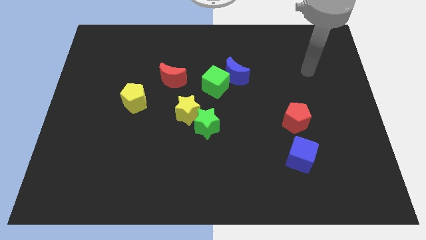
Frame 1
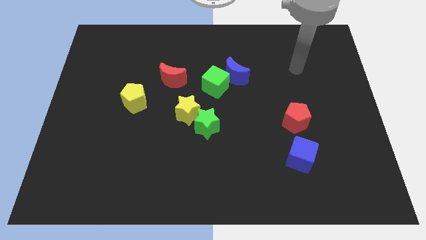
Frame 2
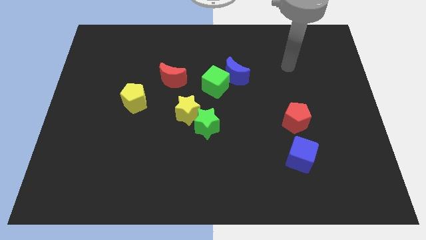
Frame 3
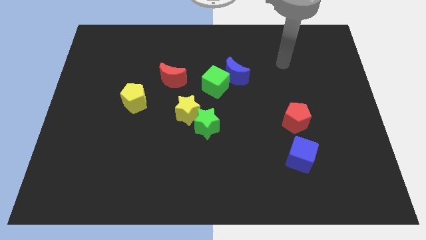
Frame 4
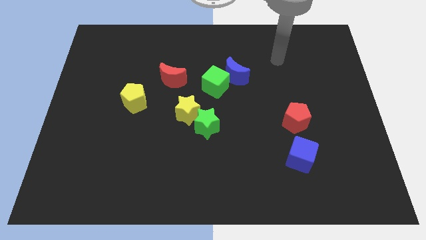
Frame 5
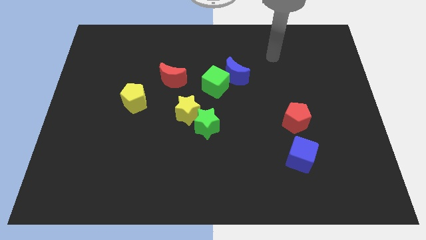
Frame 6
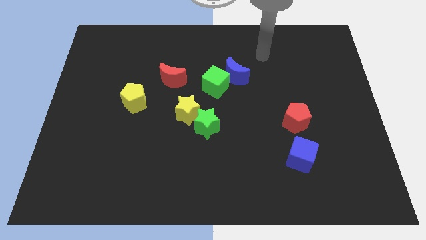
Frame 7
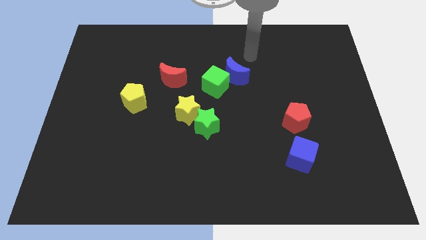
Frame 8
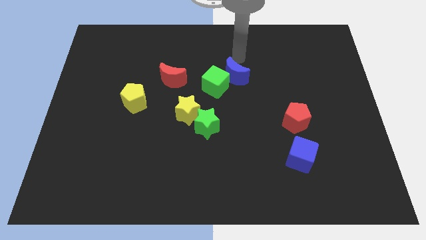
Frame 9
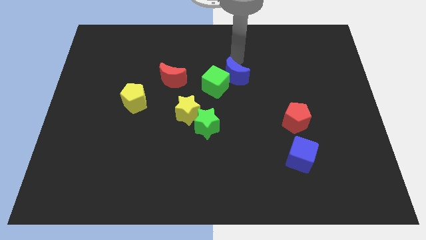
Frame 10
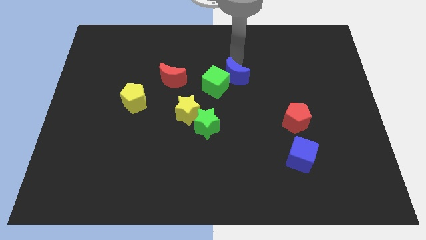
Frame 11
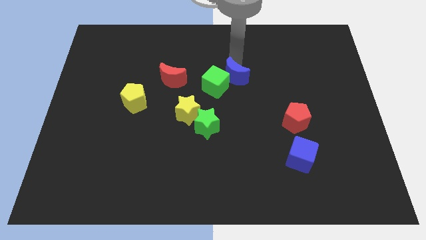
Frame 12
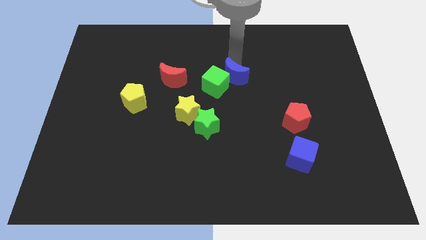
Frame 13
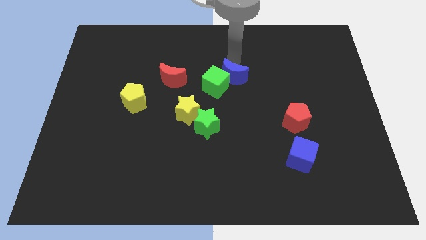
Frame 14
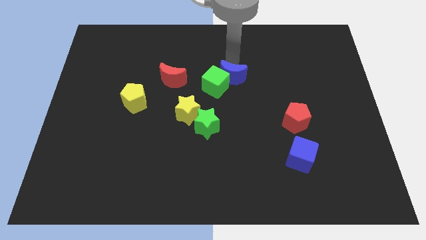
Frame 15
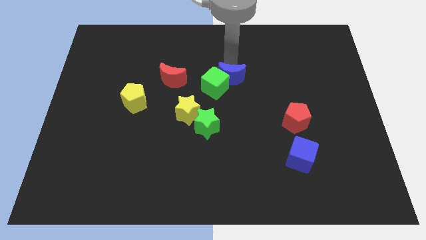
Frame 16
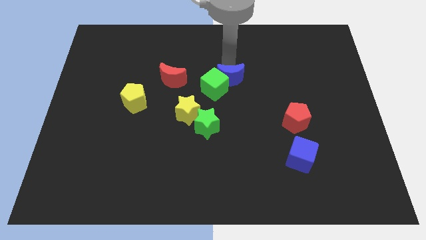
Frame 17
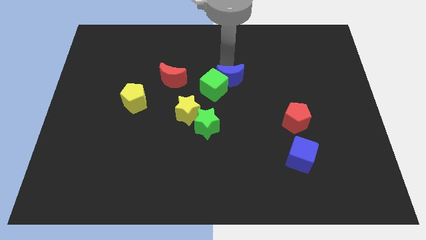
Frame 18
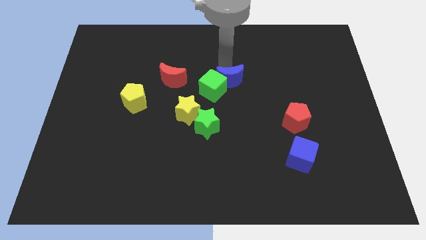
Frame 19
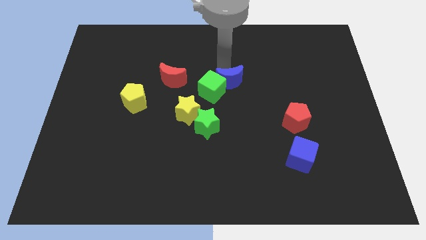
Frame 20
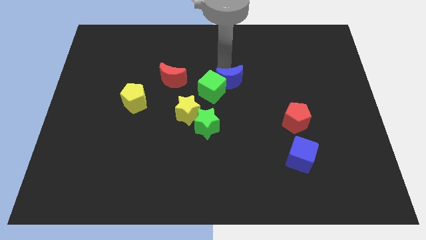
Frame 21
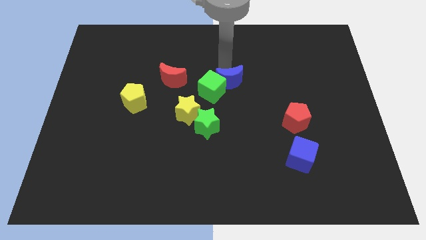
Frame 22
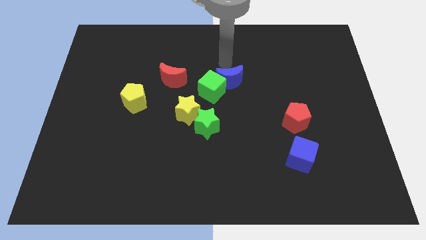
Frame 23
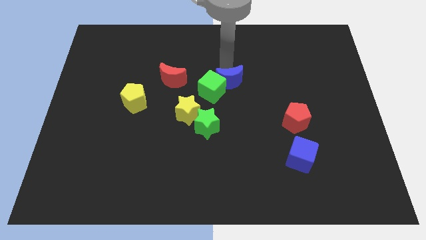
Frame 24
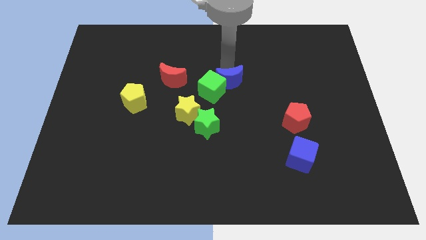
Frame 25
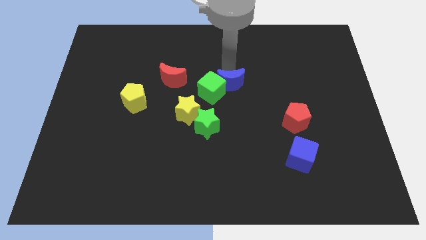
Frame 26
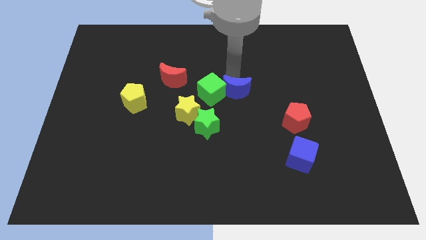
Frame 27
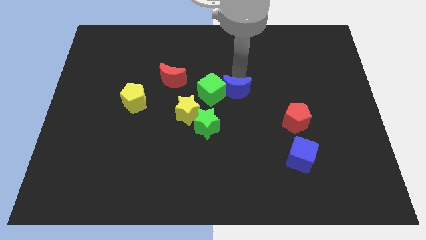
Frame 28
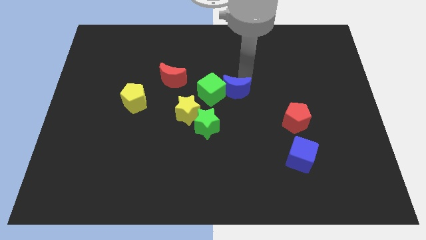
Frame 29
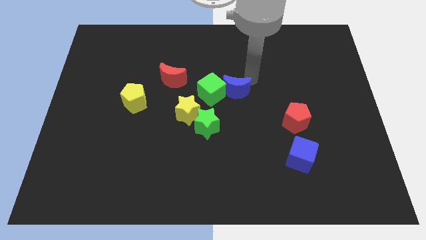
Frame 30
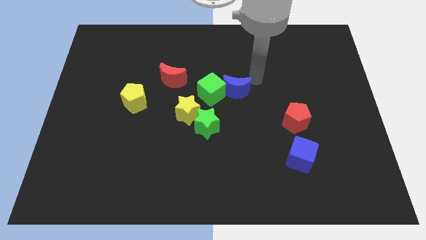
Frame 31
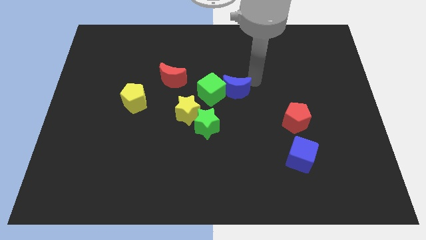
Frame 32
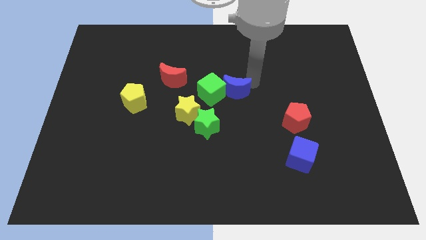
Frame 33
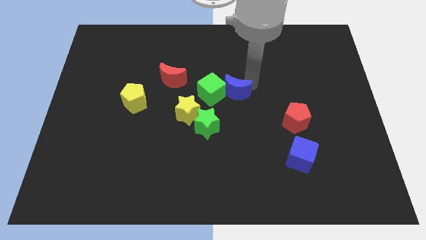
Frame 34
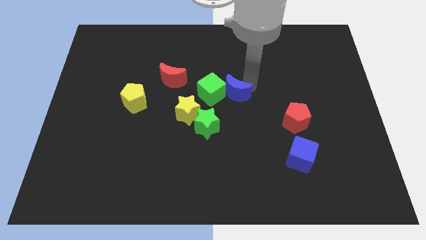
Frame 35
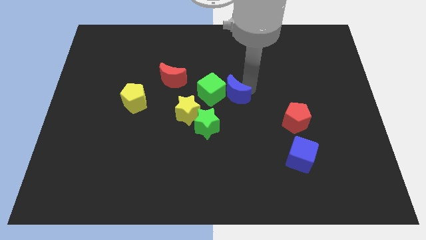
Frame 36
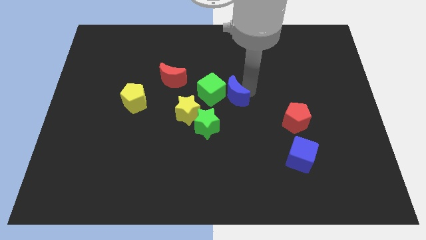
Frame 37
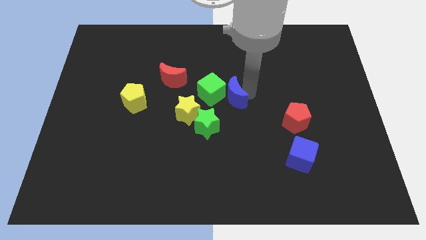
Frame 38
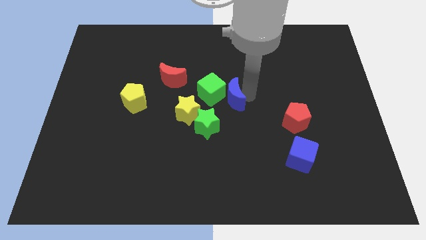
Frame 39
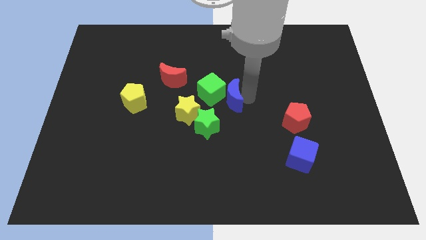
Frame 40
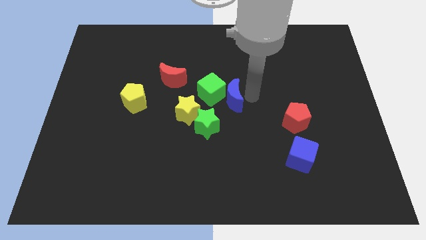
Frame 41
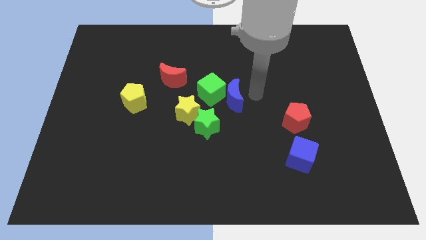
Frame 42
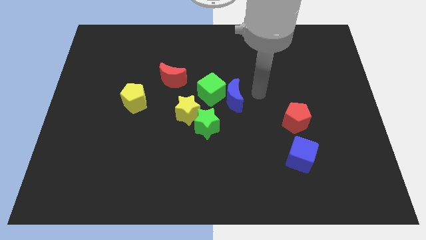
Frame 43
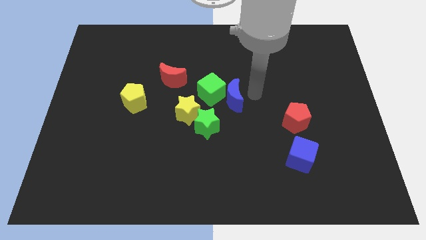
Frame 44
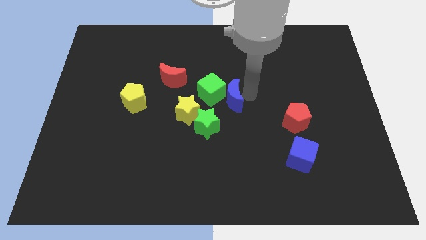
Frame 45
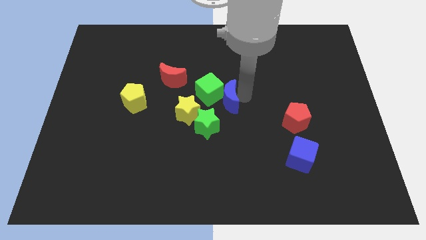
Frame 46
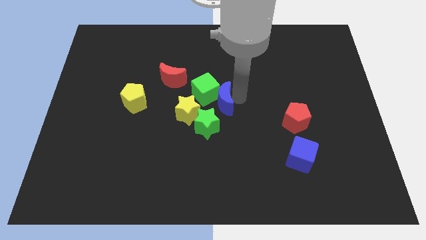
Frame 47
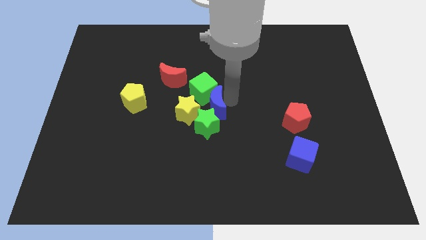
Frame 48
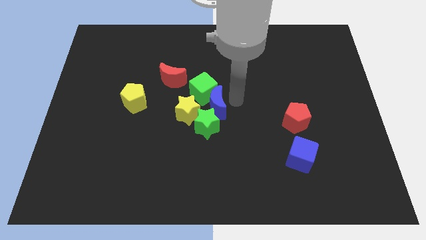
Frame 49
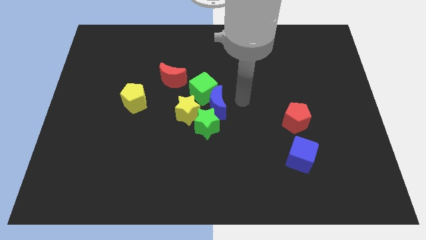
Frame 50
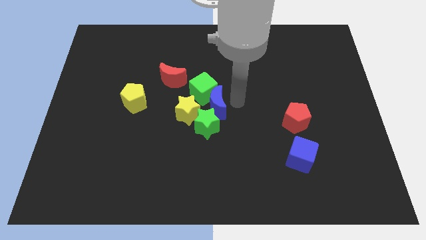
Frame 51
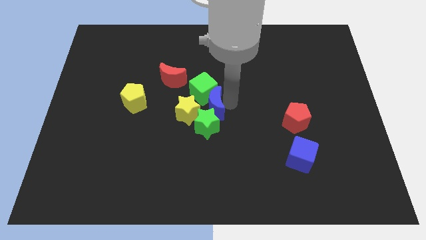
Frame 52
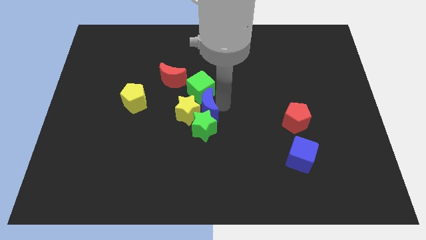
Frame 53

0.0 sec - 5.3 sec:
put the blue moon to the yellow star
